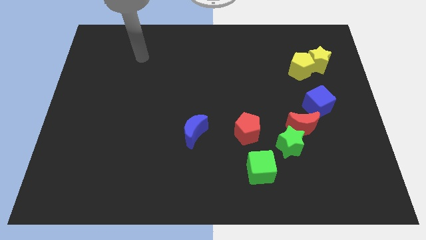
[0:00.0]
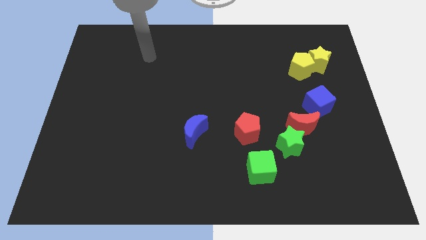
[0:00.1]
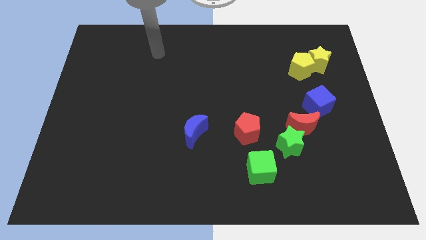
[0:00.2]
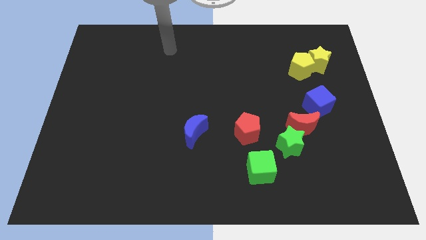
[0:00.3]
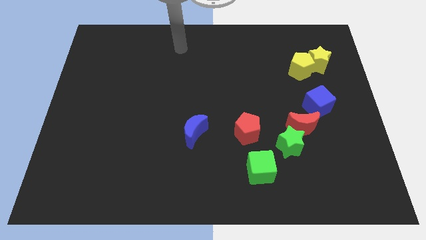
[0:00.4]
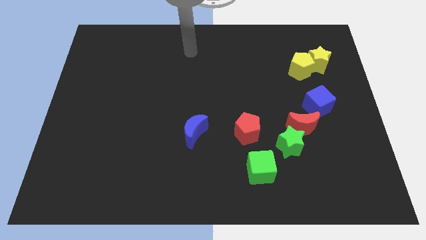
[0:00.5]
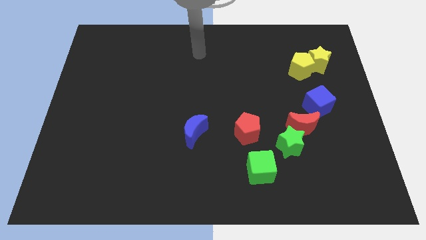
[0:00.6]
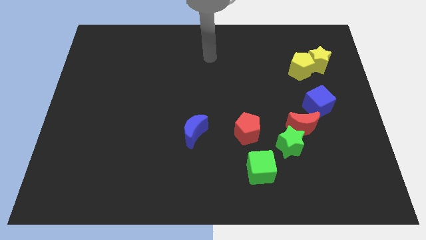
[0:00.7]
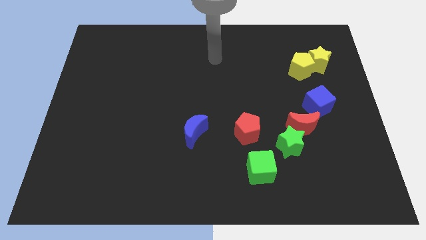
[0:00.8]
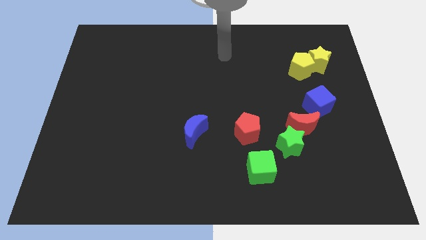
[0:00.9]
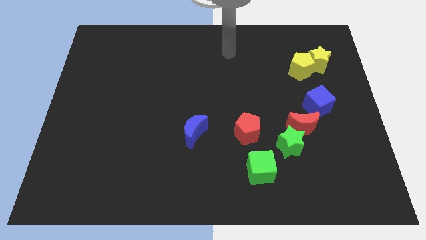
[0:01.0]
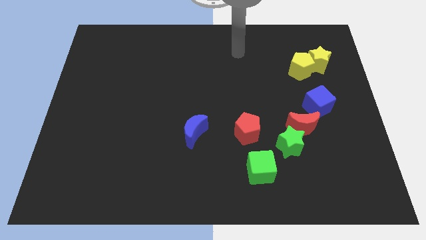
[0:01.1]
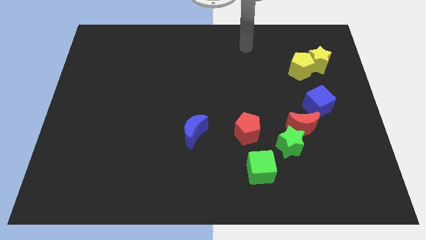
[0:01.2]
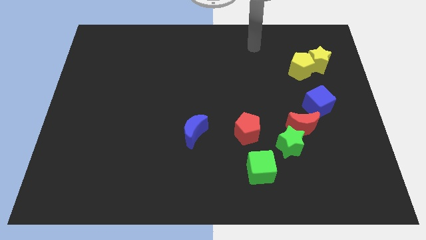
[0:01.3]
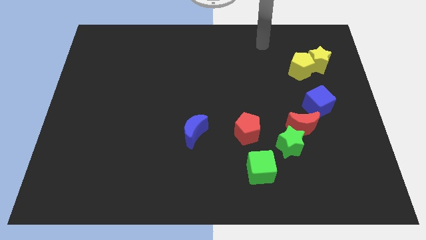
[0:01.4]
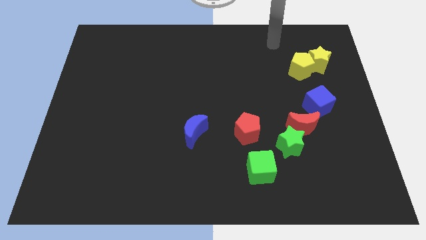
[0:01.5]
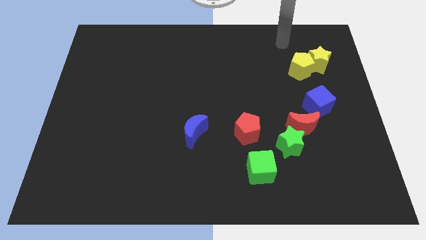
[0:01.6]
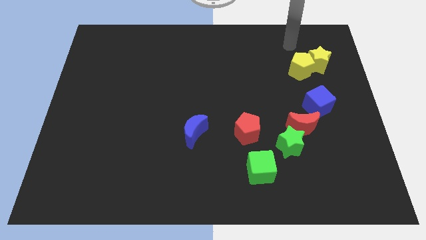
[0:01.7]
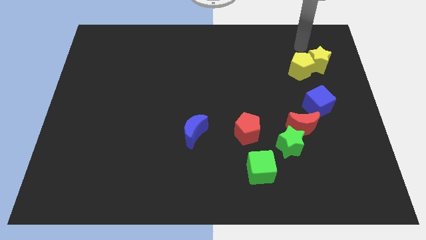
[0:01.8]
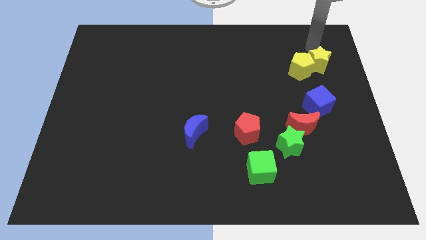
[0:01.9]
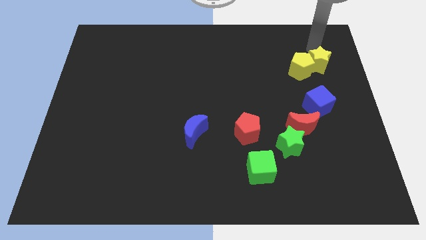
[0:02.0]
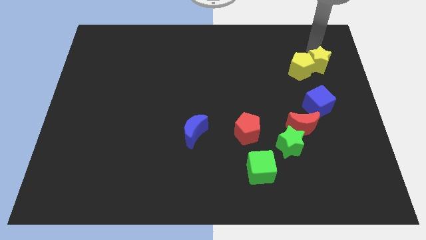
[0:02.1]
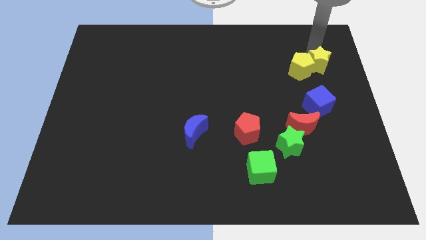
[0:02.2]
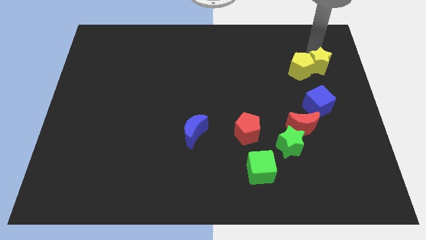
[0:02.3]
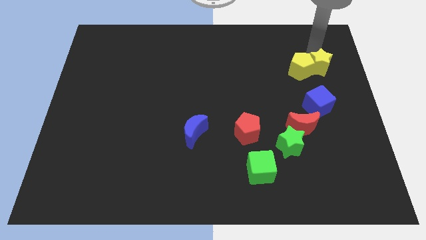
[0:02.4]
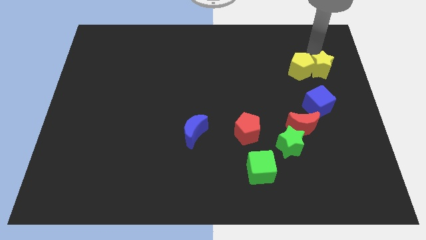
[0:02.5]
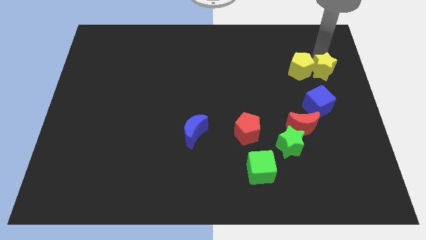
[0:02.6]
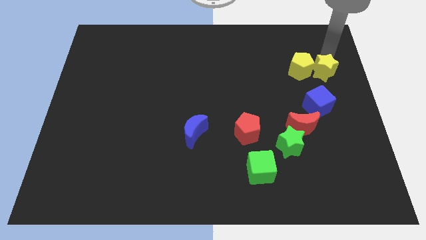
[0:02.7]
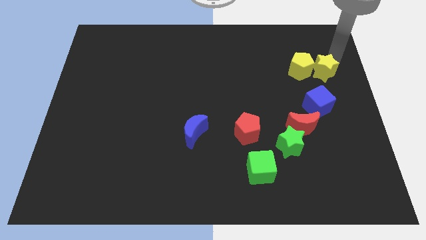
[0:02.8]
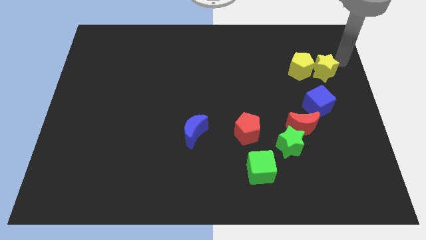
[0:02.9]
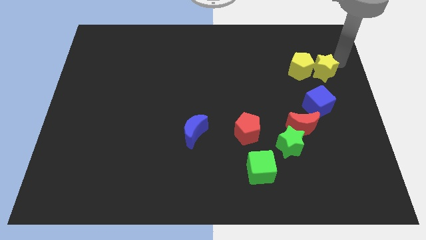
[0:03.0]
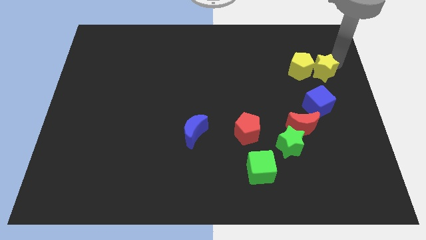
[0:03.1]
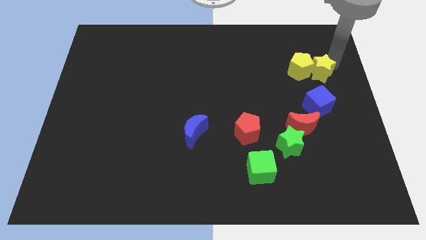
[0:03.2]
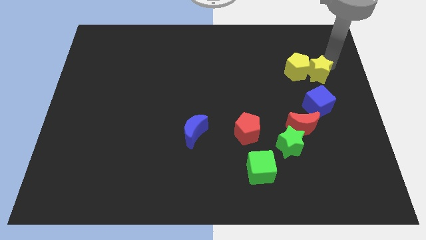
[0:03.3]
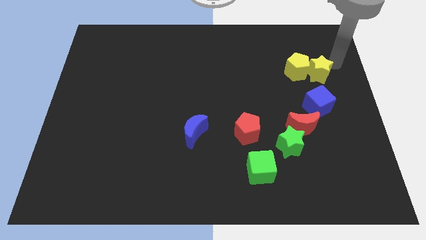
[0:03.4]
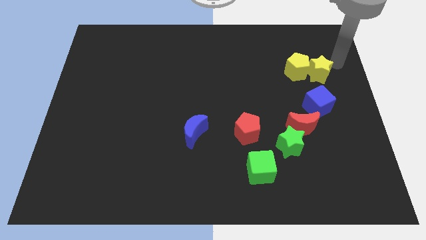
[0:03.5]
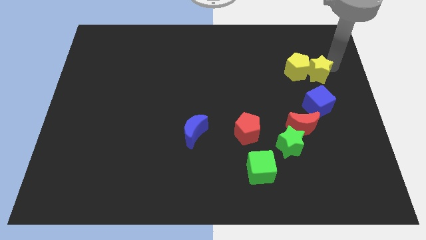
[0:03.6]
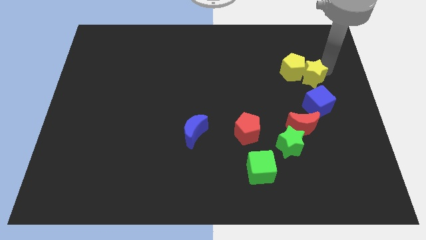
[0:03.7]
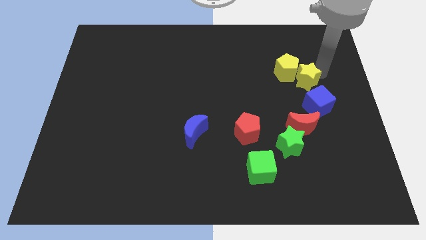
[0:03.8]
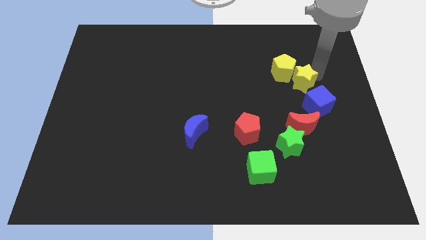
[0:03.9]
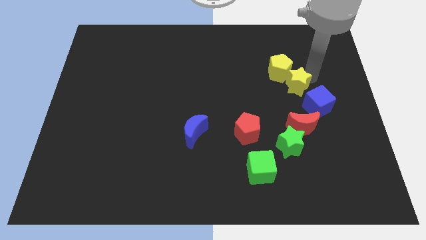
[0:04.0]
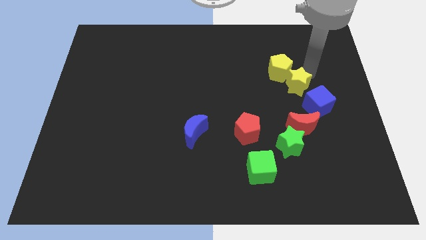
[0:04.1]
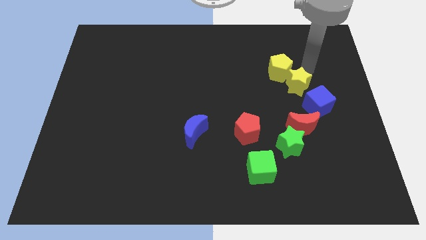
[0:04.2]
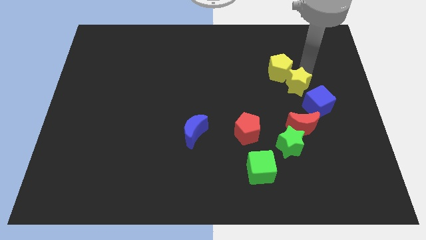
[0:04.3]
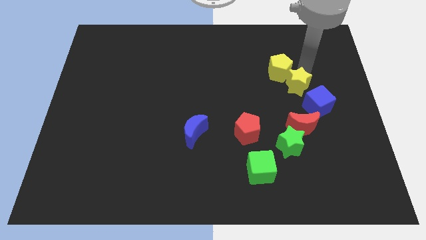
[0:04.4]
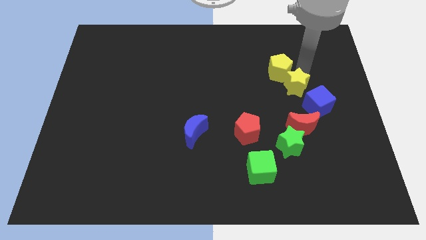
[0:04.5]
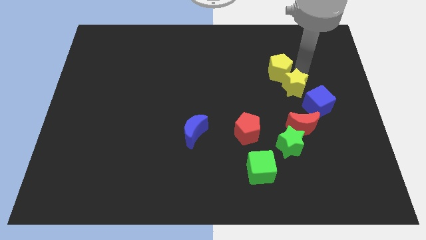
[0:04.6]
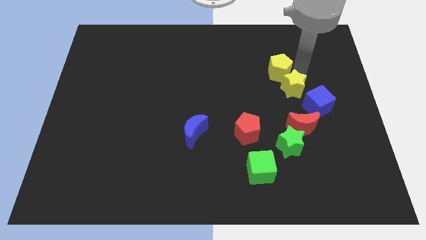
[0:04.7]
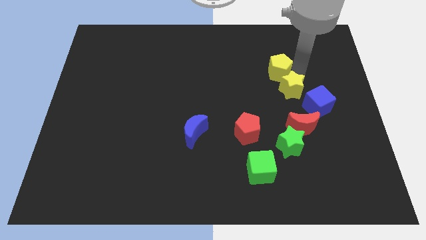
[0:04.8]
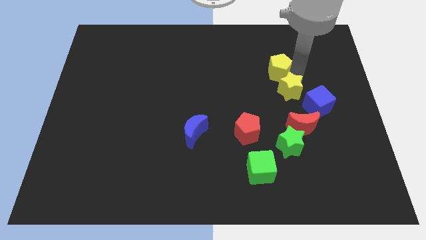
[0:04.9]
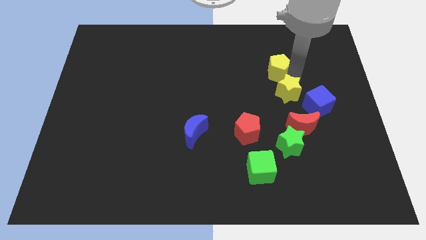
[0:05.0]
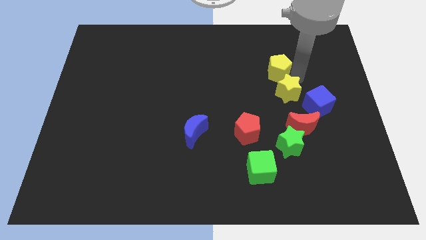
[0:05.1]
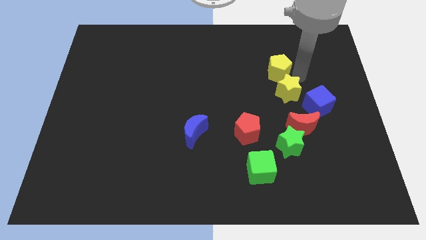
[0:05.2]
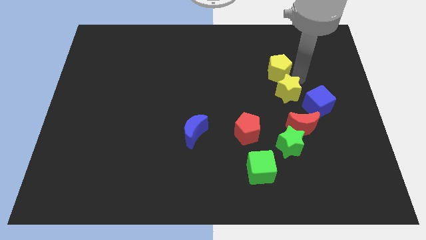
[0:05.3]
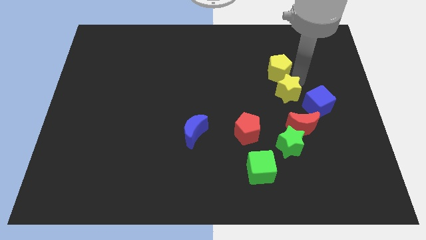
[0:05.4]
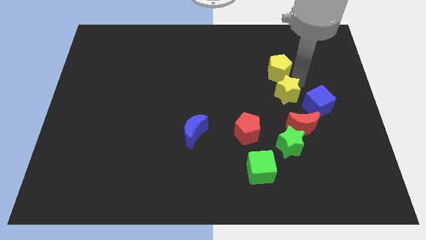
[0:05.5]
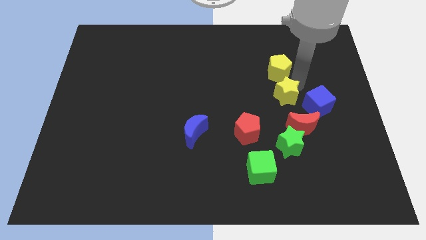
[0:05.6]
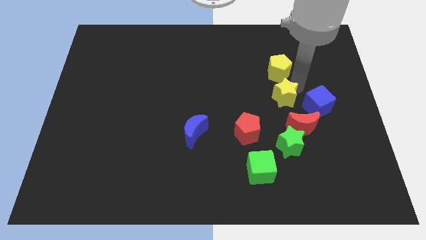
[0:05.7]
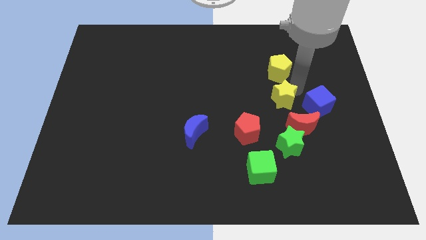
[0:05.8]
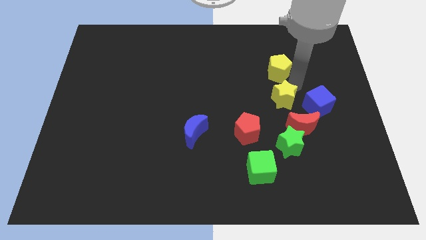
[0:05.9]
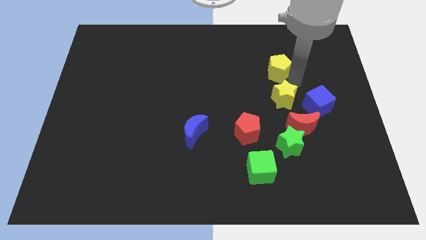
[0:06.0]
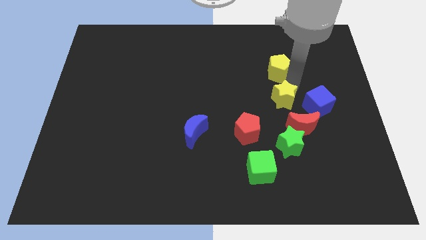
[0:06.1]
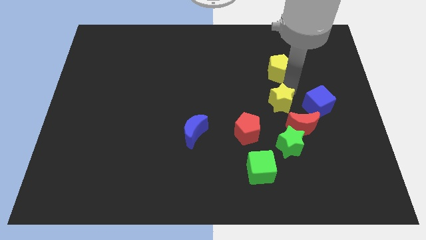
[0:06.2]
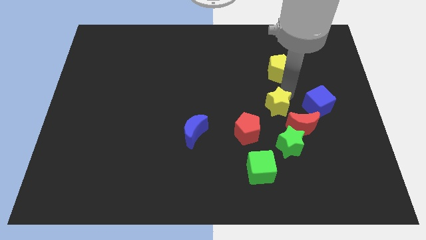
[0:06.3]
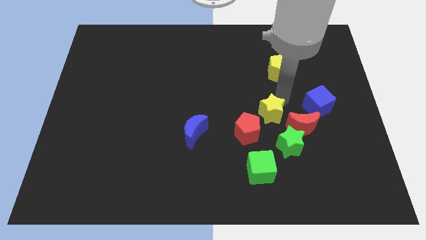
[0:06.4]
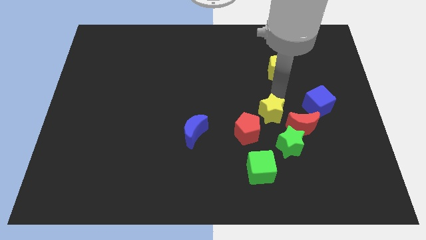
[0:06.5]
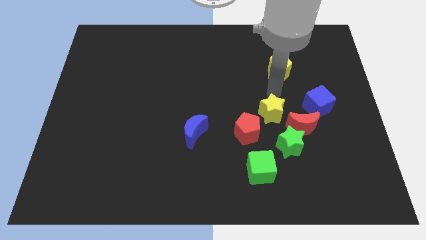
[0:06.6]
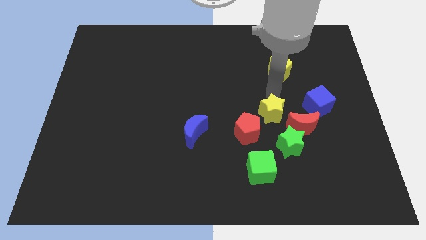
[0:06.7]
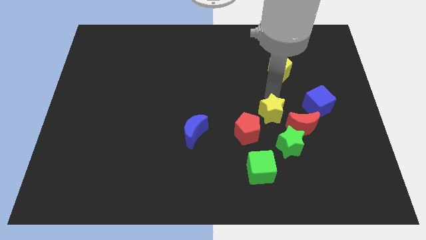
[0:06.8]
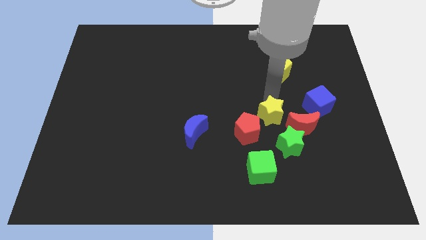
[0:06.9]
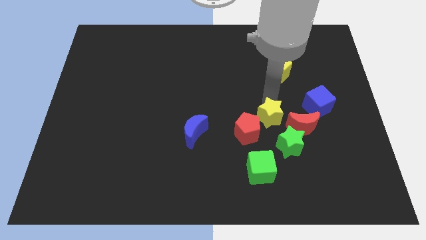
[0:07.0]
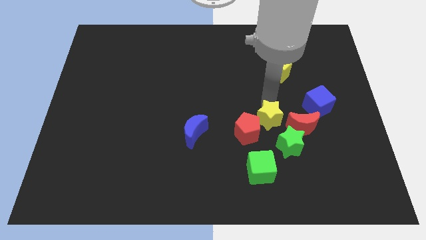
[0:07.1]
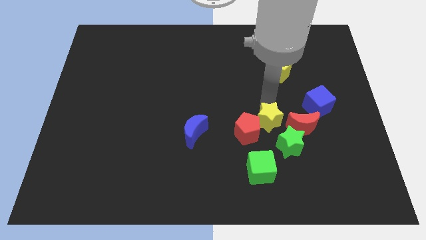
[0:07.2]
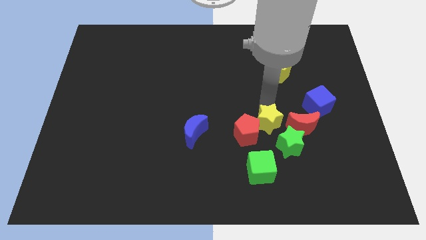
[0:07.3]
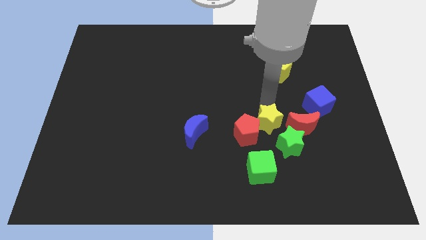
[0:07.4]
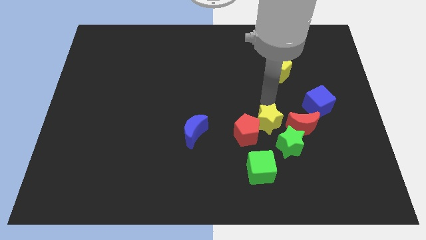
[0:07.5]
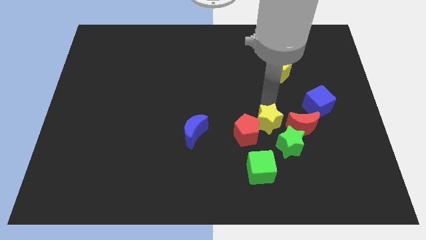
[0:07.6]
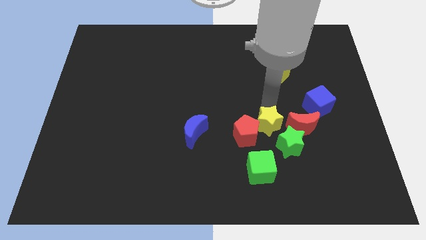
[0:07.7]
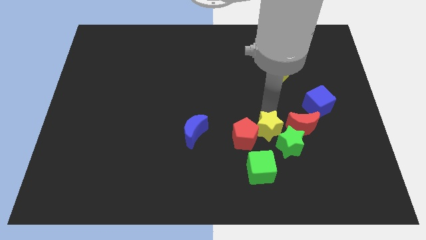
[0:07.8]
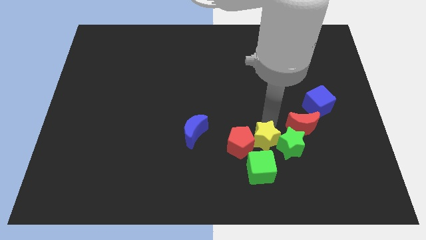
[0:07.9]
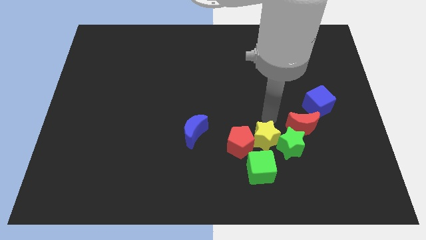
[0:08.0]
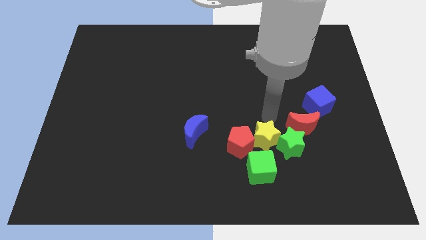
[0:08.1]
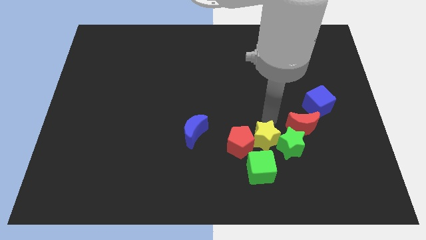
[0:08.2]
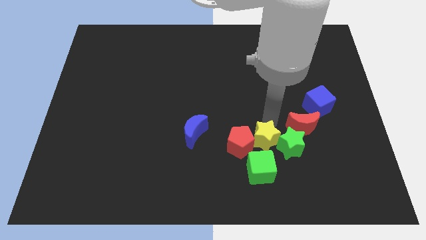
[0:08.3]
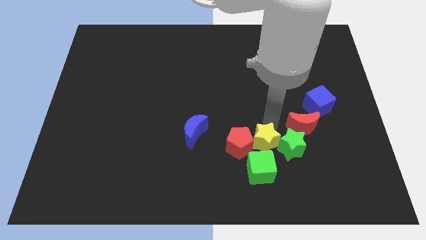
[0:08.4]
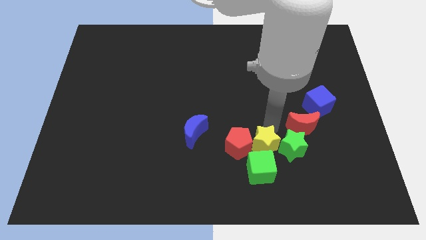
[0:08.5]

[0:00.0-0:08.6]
push the yellow star to the green cube
